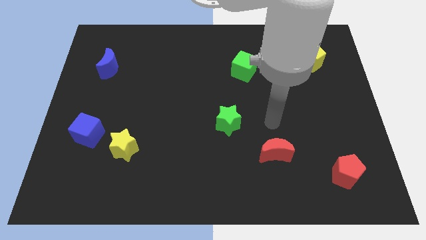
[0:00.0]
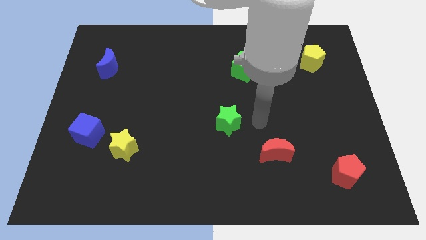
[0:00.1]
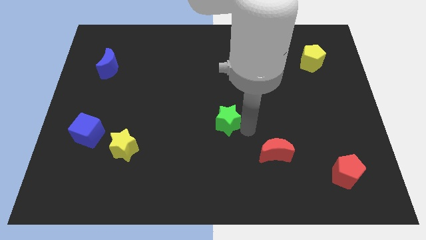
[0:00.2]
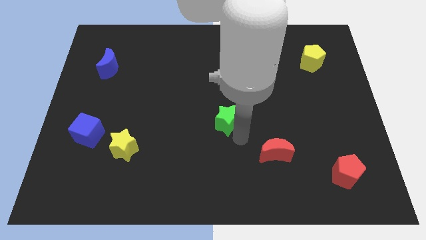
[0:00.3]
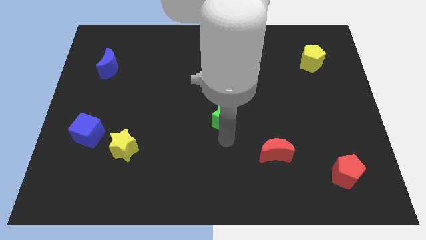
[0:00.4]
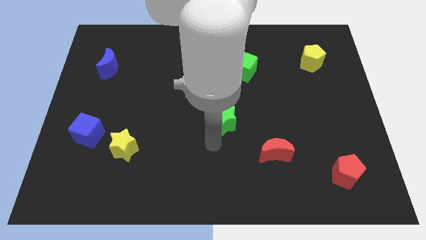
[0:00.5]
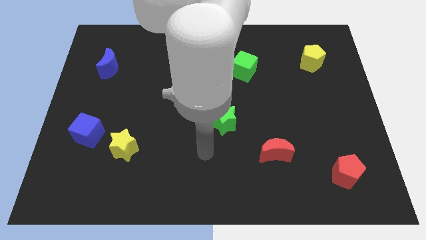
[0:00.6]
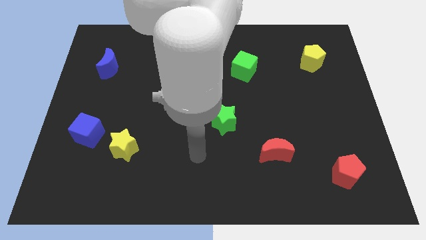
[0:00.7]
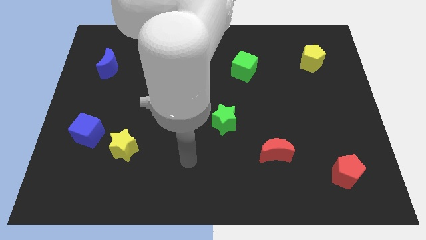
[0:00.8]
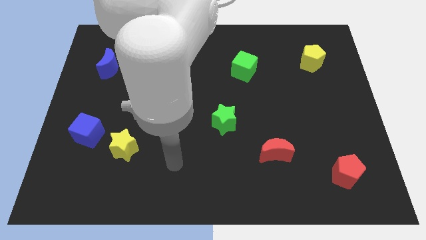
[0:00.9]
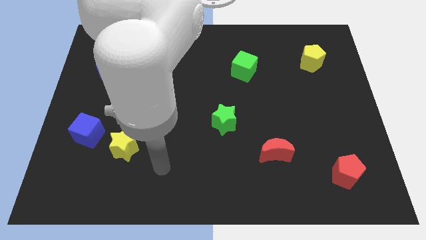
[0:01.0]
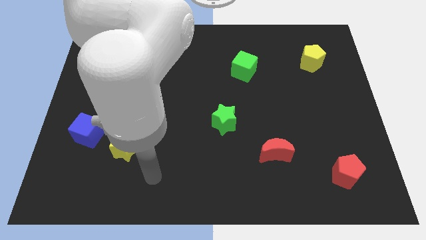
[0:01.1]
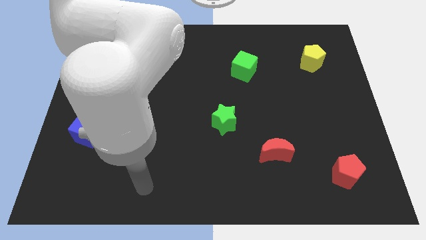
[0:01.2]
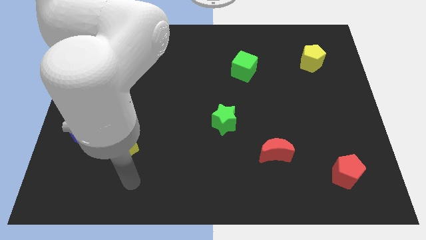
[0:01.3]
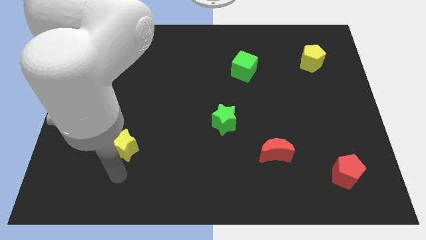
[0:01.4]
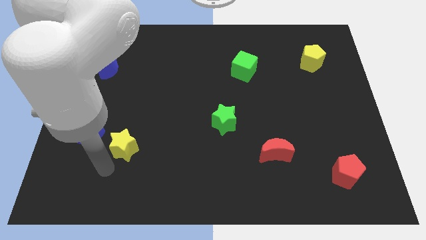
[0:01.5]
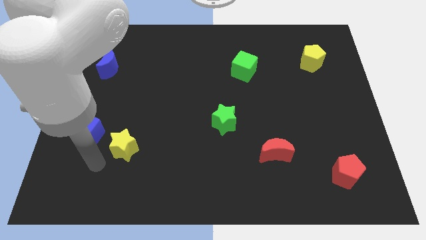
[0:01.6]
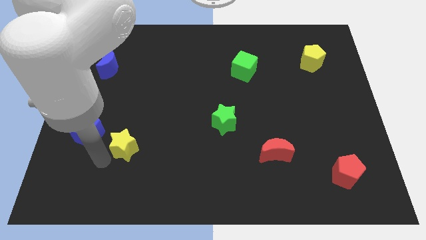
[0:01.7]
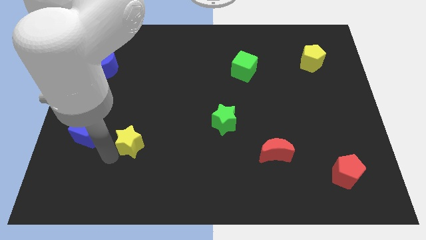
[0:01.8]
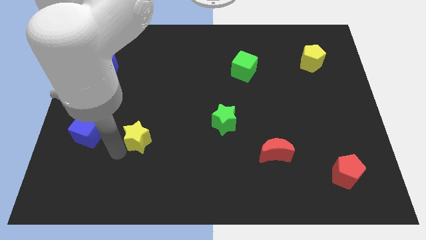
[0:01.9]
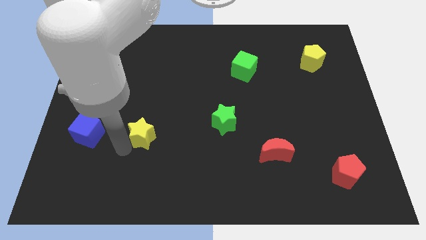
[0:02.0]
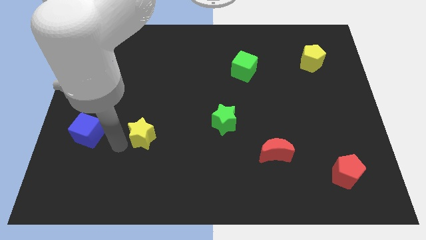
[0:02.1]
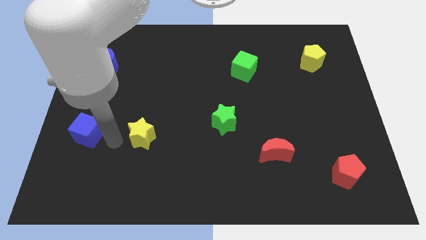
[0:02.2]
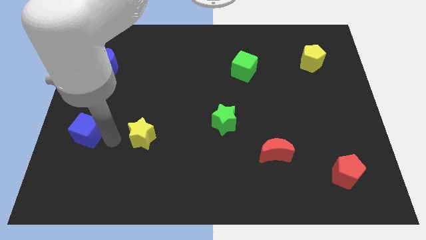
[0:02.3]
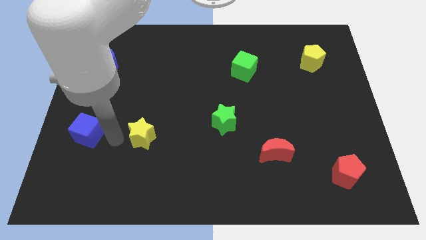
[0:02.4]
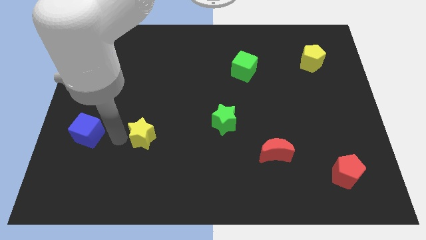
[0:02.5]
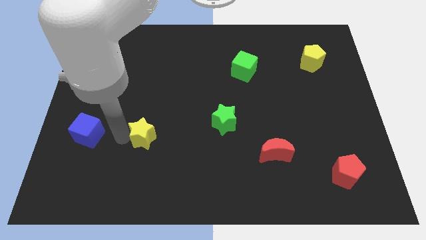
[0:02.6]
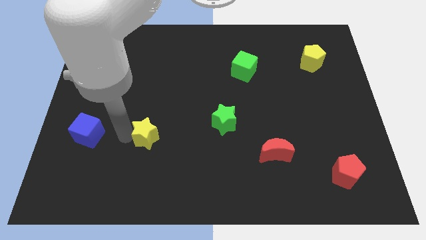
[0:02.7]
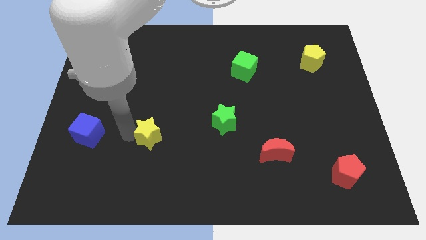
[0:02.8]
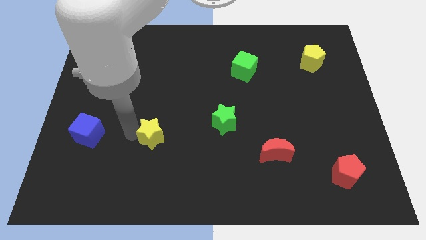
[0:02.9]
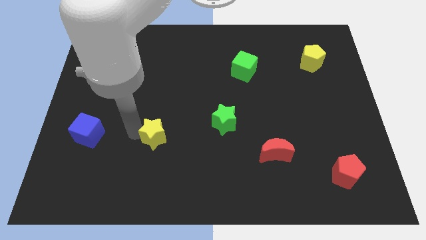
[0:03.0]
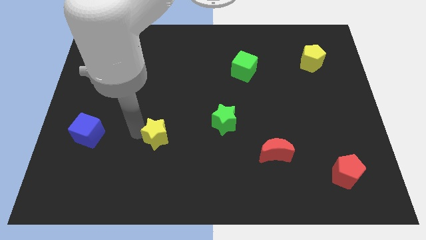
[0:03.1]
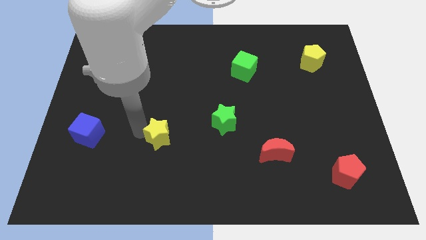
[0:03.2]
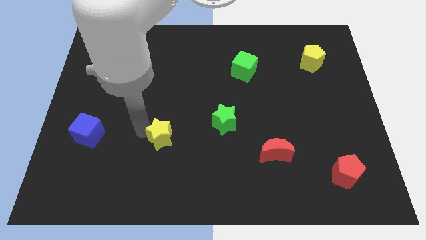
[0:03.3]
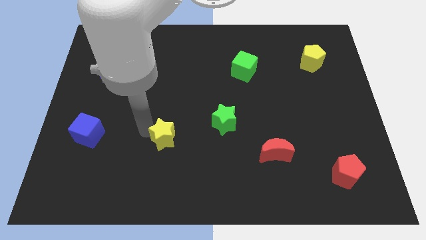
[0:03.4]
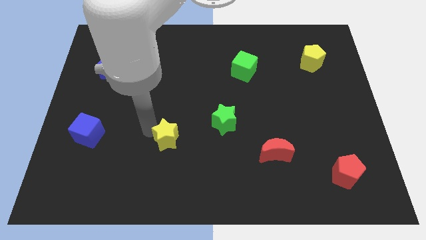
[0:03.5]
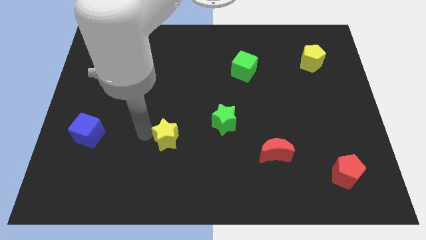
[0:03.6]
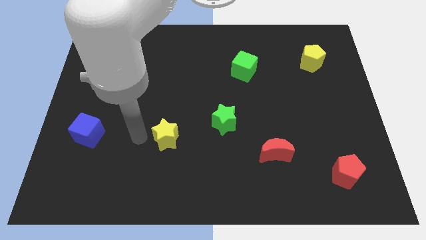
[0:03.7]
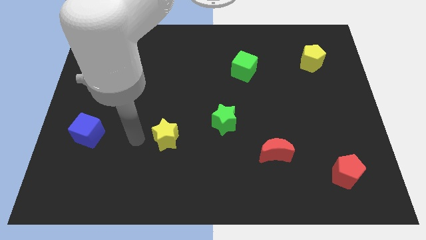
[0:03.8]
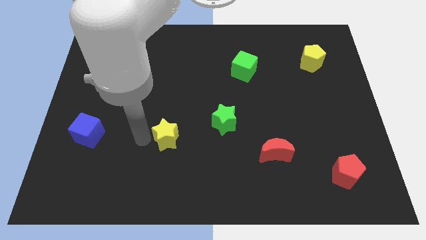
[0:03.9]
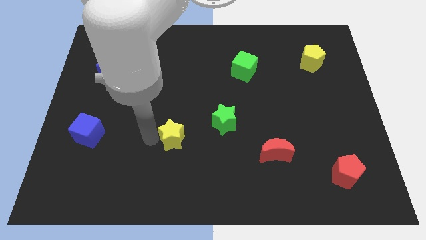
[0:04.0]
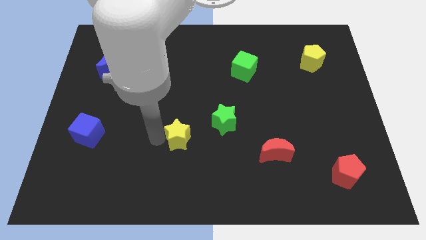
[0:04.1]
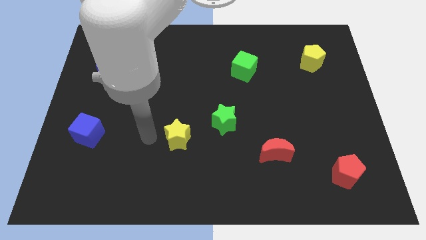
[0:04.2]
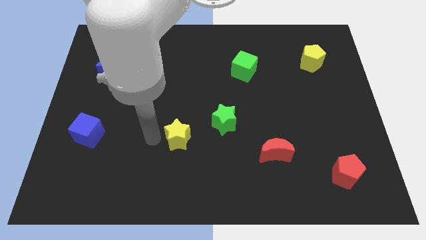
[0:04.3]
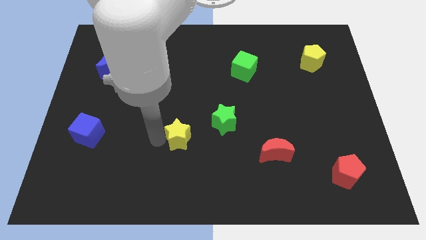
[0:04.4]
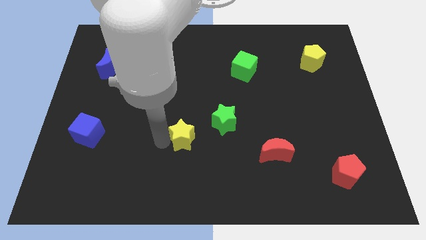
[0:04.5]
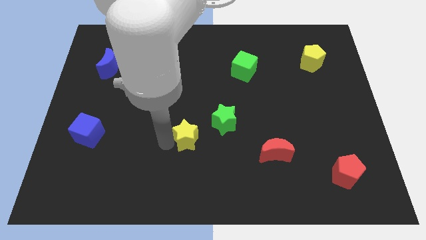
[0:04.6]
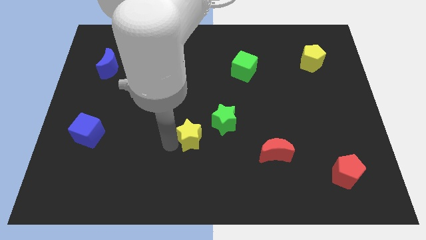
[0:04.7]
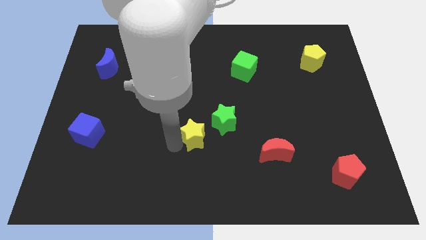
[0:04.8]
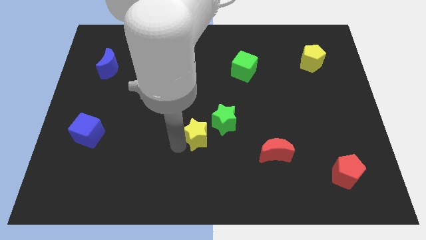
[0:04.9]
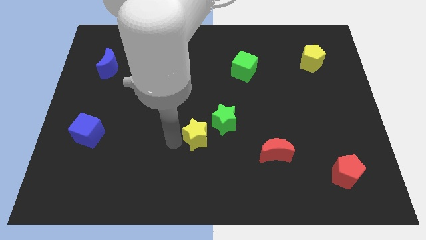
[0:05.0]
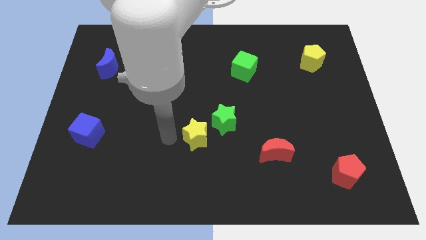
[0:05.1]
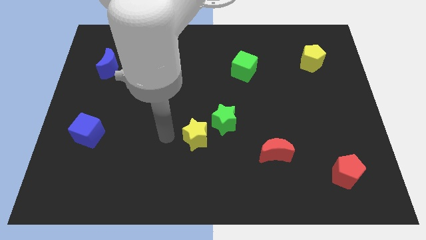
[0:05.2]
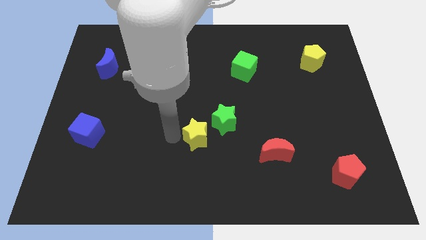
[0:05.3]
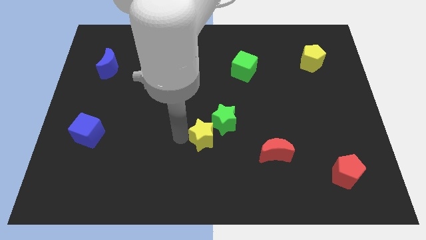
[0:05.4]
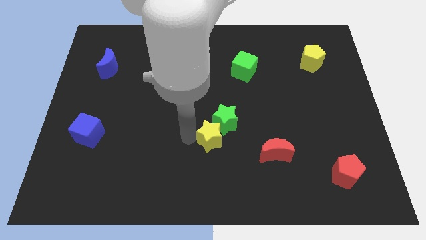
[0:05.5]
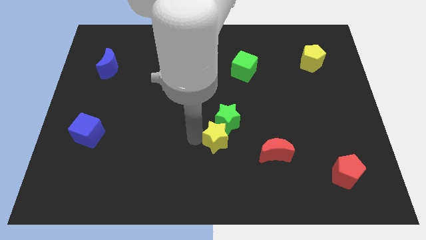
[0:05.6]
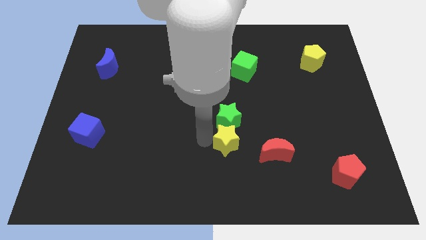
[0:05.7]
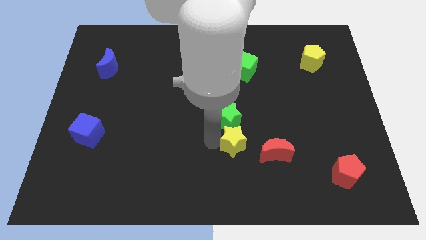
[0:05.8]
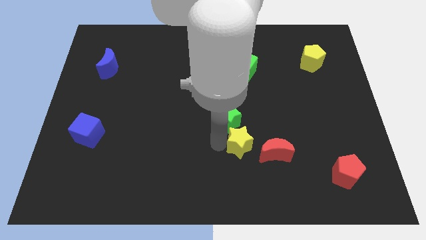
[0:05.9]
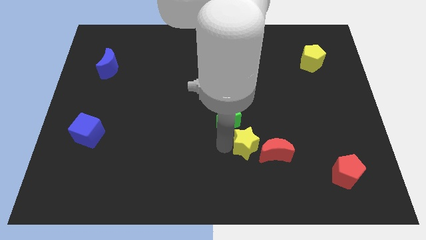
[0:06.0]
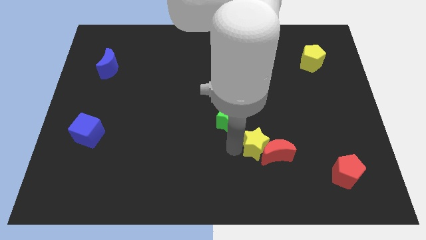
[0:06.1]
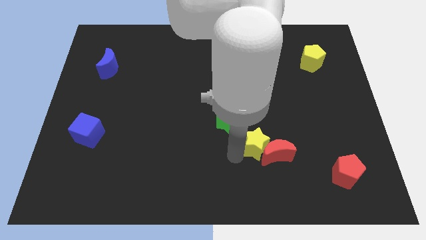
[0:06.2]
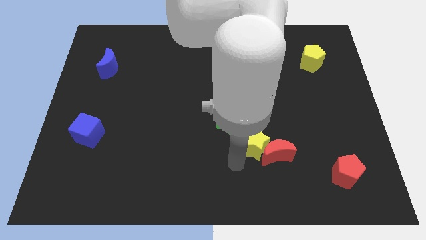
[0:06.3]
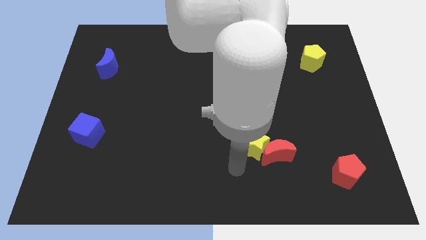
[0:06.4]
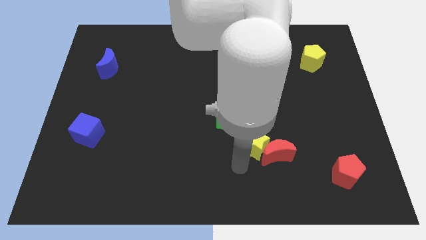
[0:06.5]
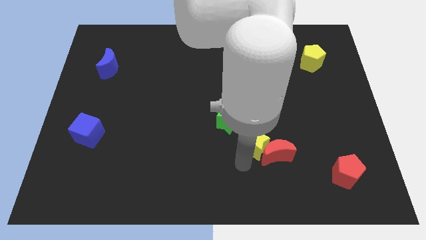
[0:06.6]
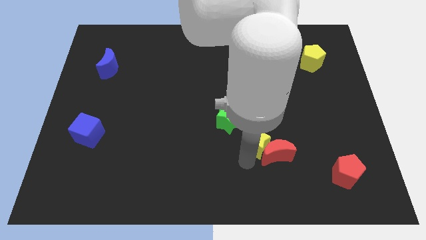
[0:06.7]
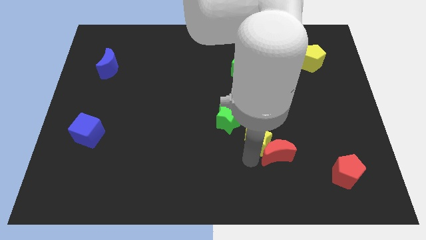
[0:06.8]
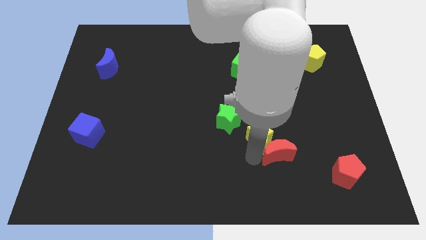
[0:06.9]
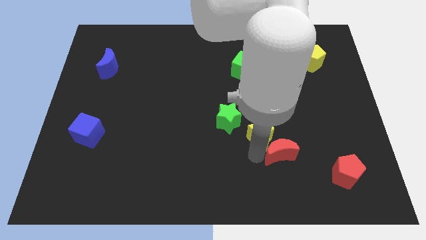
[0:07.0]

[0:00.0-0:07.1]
push the yellow star to the right of the green star
